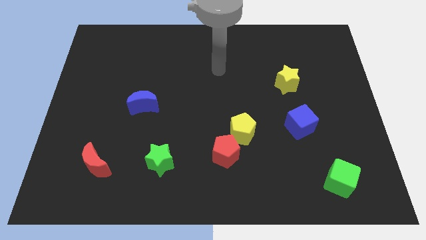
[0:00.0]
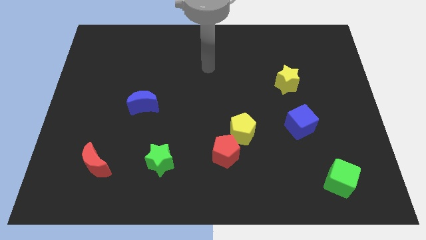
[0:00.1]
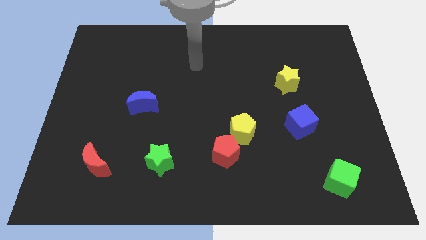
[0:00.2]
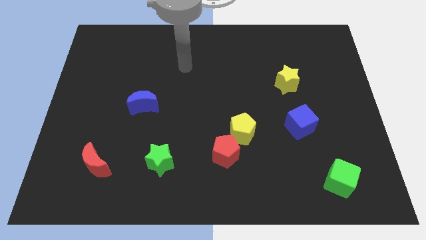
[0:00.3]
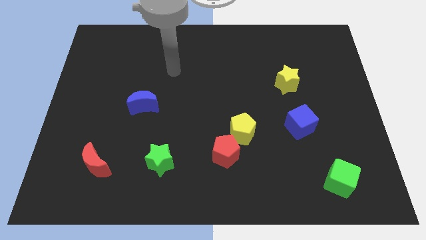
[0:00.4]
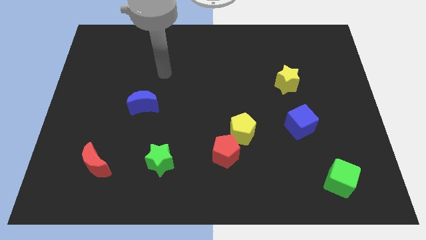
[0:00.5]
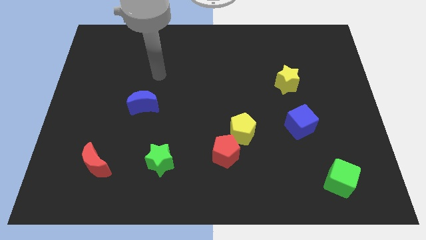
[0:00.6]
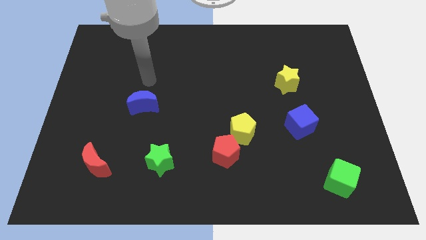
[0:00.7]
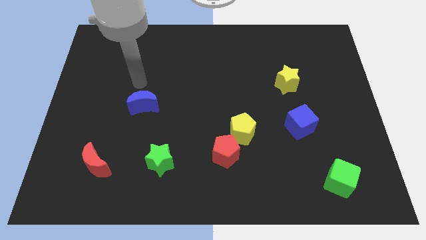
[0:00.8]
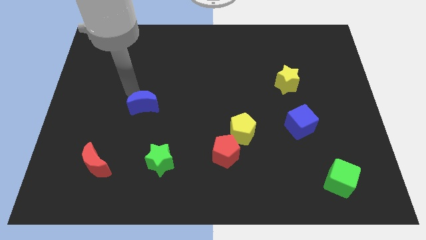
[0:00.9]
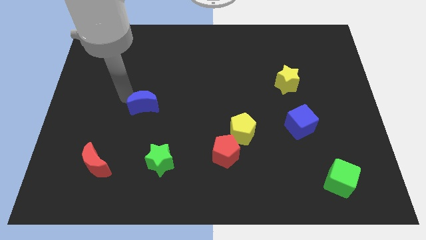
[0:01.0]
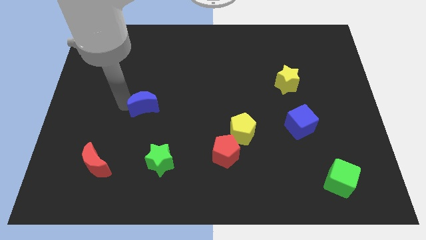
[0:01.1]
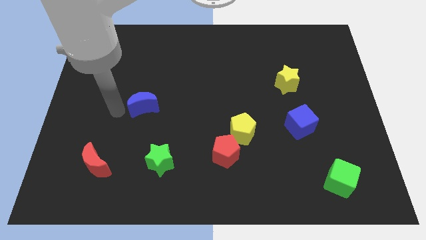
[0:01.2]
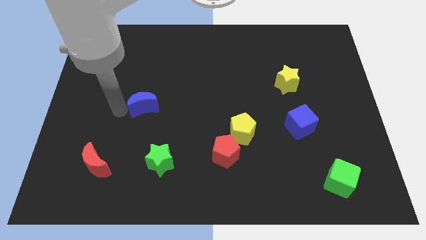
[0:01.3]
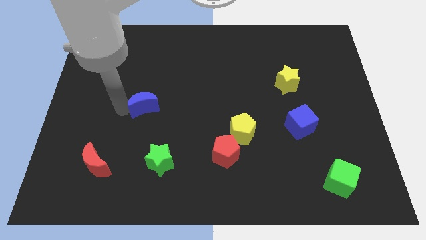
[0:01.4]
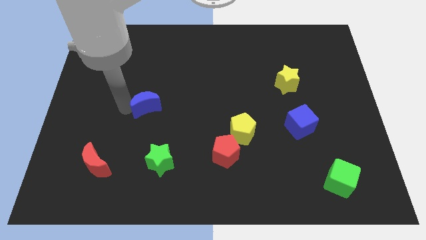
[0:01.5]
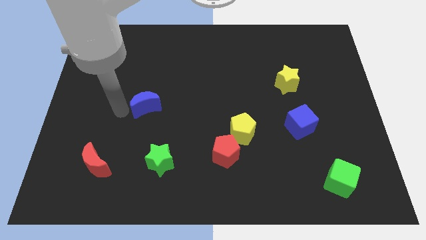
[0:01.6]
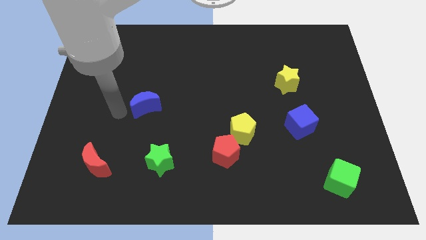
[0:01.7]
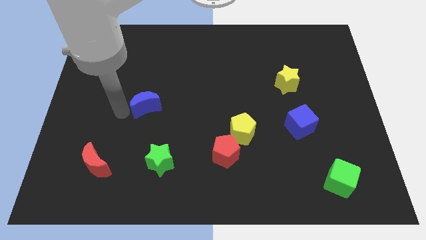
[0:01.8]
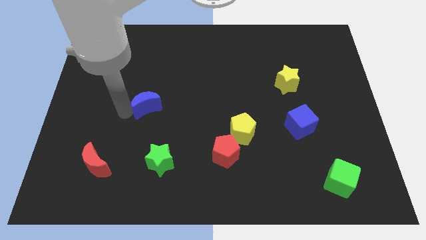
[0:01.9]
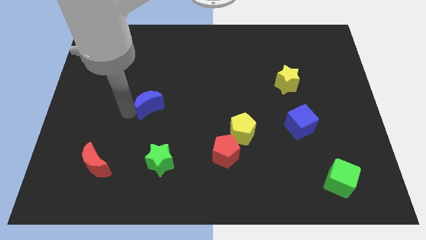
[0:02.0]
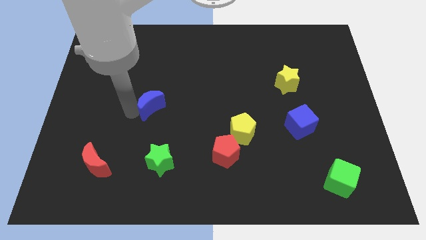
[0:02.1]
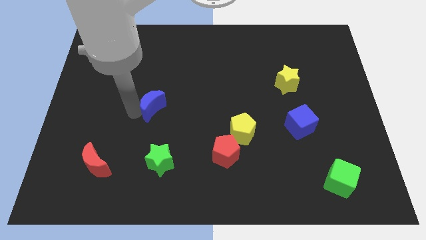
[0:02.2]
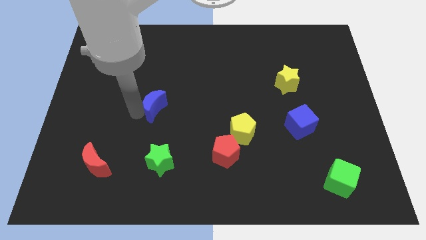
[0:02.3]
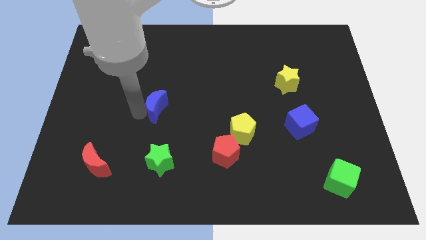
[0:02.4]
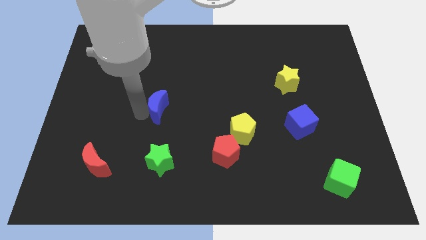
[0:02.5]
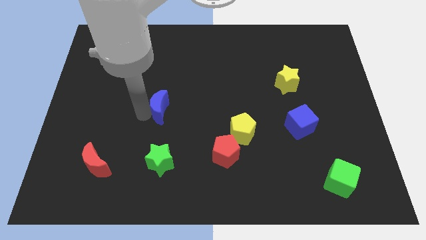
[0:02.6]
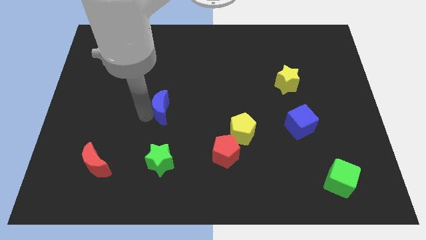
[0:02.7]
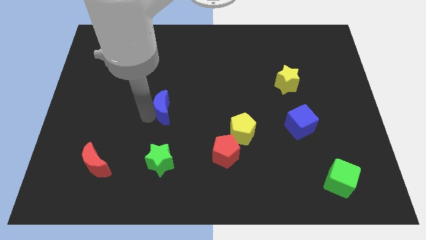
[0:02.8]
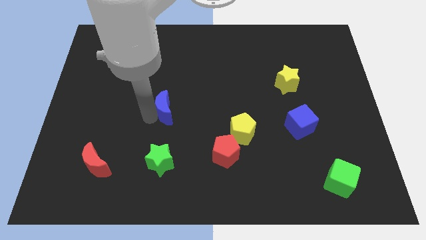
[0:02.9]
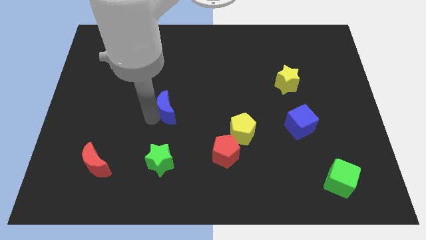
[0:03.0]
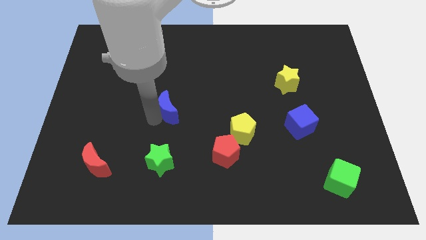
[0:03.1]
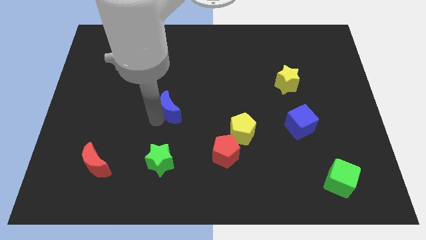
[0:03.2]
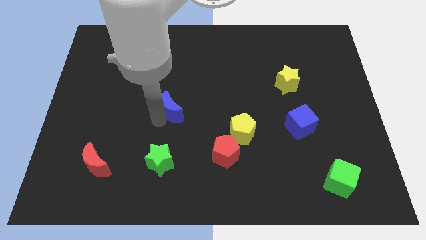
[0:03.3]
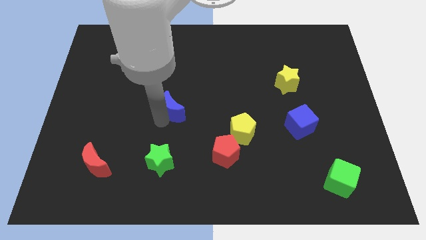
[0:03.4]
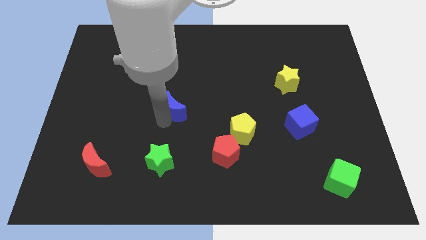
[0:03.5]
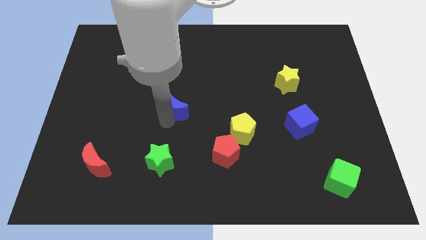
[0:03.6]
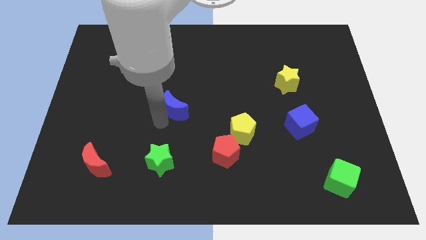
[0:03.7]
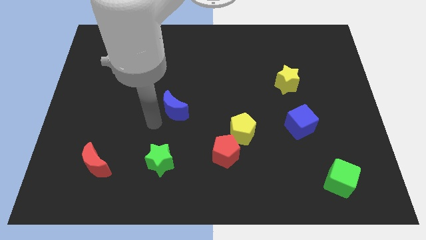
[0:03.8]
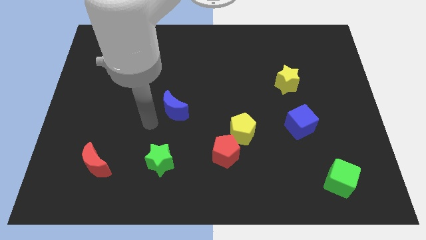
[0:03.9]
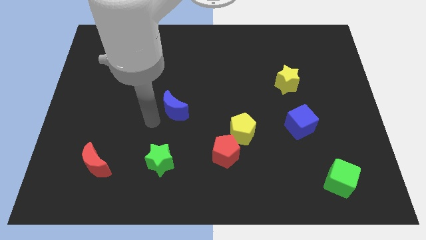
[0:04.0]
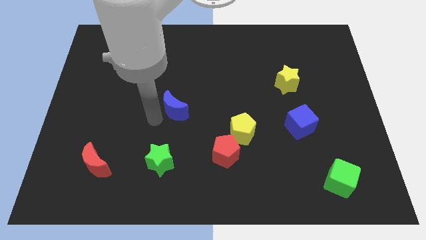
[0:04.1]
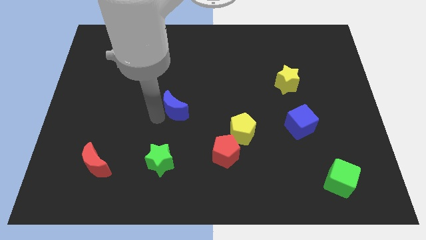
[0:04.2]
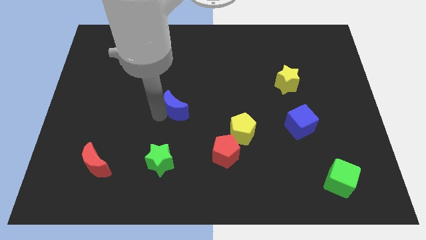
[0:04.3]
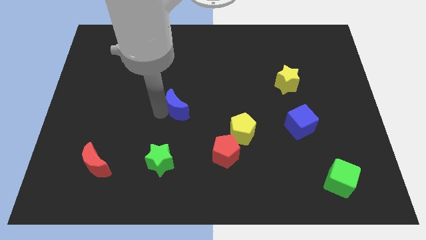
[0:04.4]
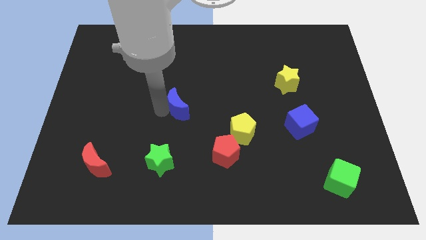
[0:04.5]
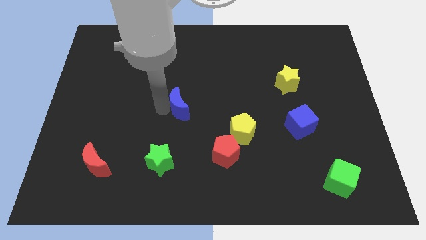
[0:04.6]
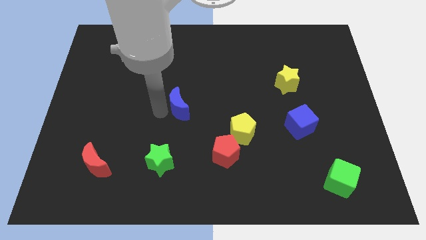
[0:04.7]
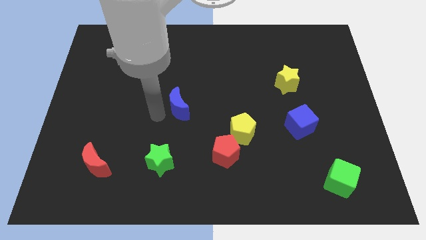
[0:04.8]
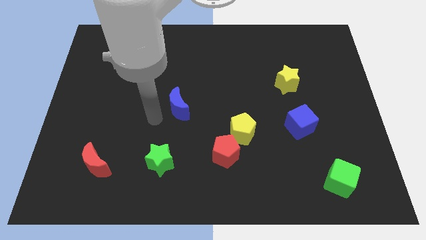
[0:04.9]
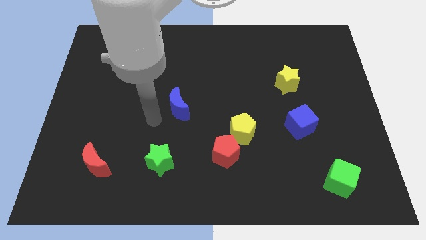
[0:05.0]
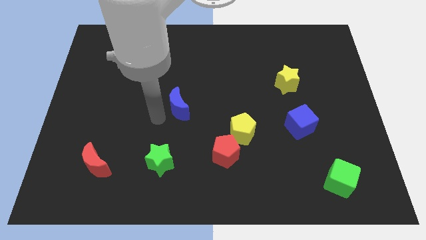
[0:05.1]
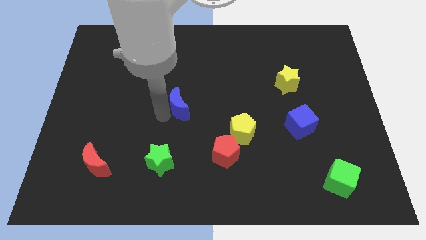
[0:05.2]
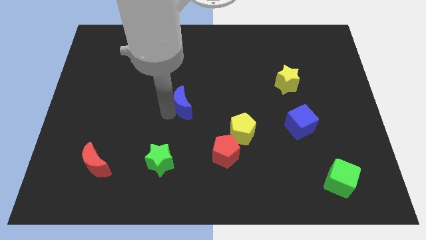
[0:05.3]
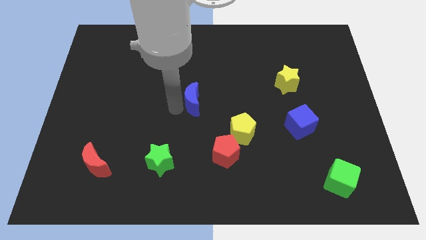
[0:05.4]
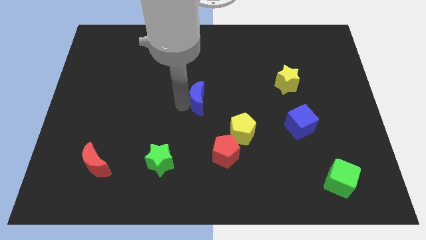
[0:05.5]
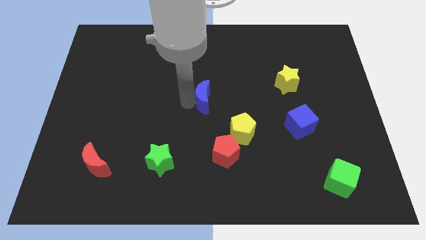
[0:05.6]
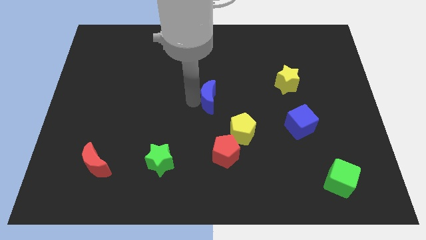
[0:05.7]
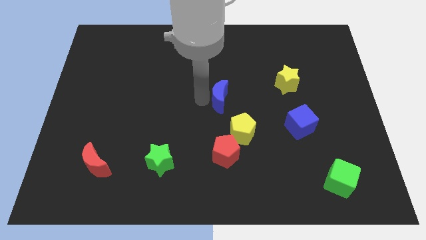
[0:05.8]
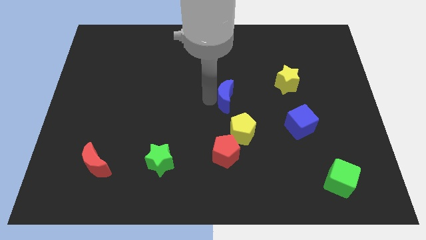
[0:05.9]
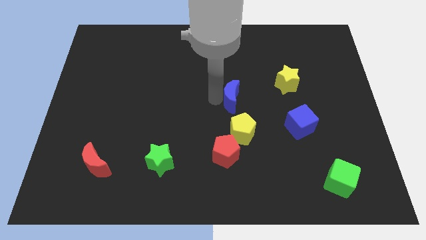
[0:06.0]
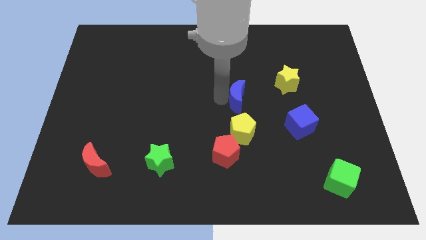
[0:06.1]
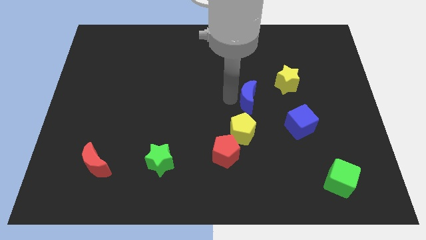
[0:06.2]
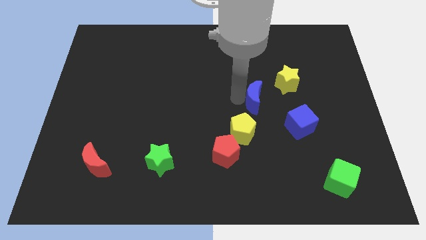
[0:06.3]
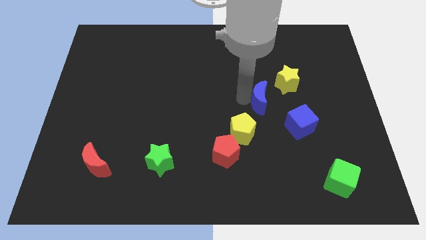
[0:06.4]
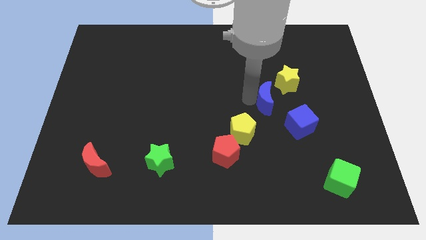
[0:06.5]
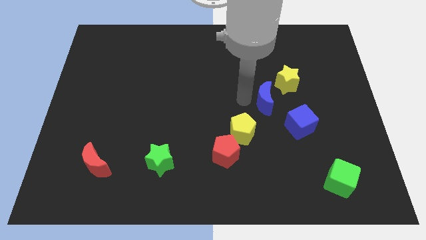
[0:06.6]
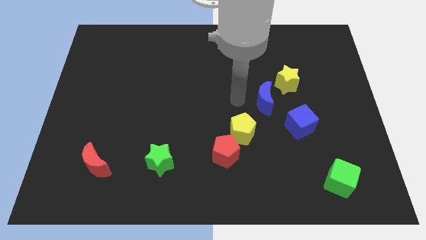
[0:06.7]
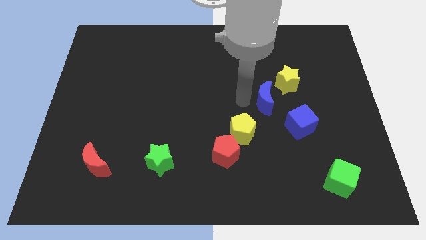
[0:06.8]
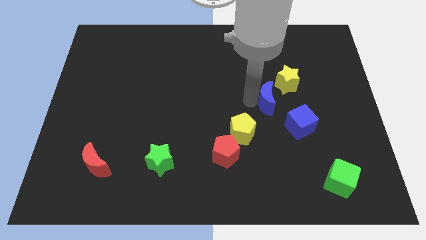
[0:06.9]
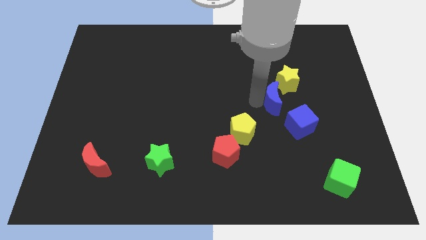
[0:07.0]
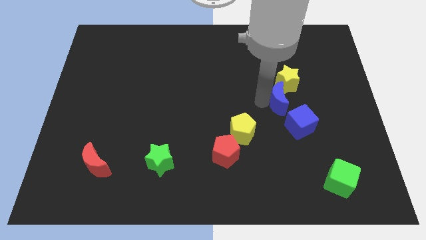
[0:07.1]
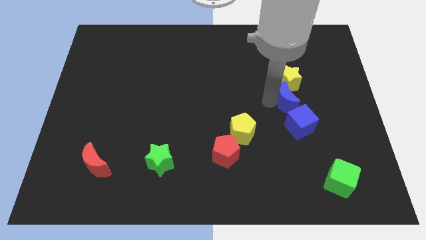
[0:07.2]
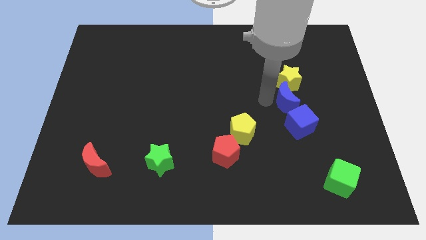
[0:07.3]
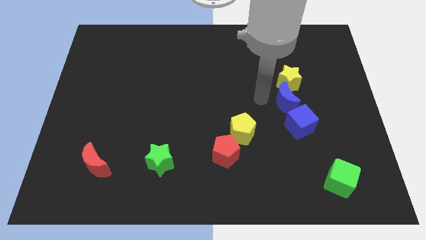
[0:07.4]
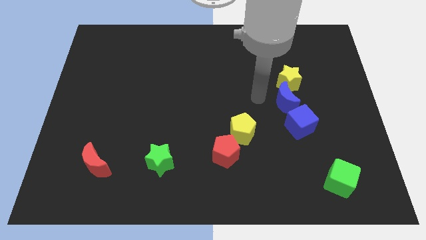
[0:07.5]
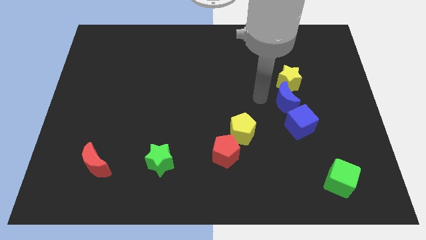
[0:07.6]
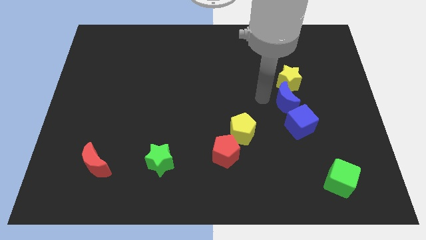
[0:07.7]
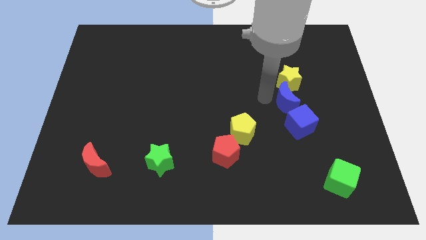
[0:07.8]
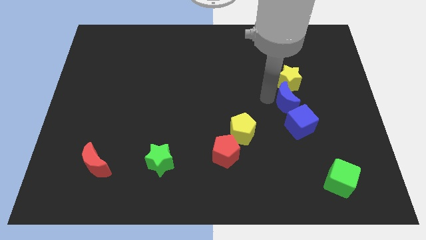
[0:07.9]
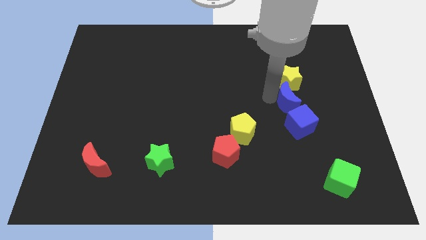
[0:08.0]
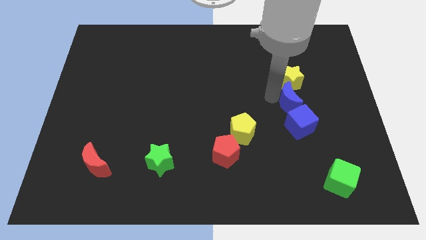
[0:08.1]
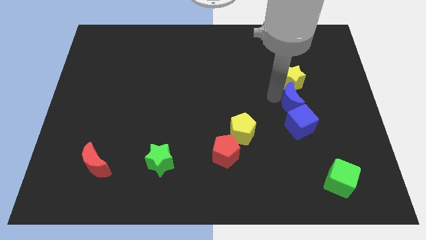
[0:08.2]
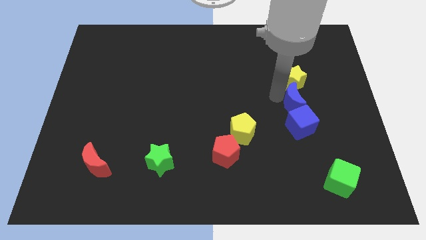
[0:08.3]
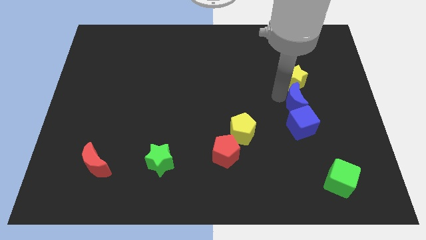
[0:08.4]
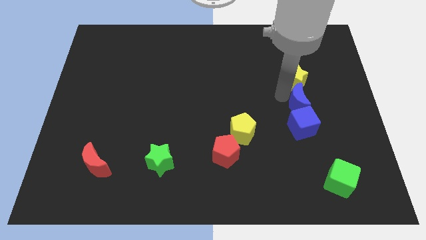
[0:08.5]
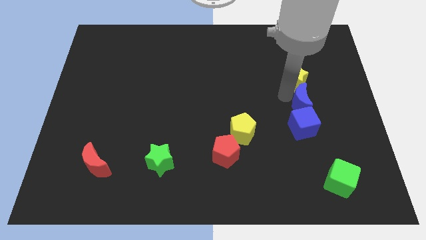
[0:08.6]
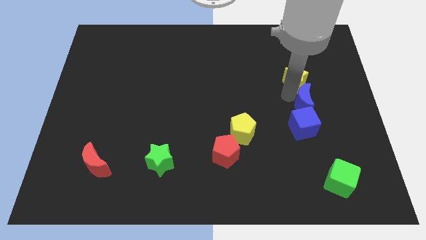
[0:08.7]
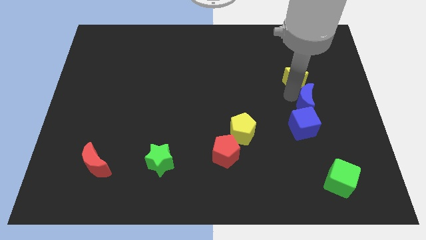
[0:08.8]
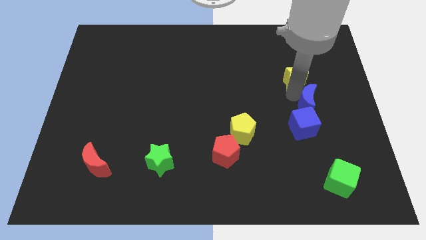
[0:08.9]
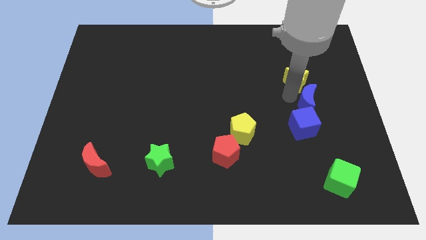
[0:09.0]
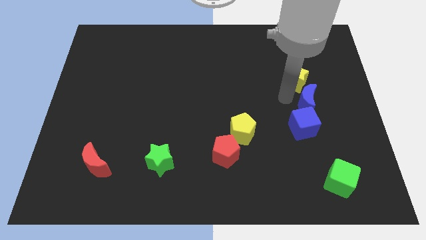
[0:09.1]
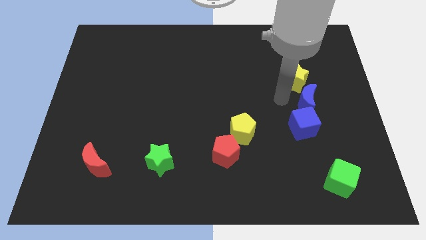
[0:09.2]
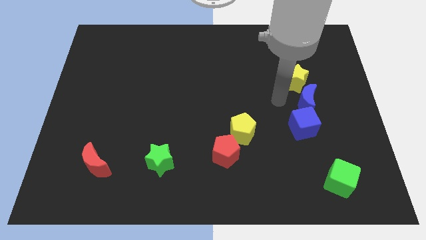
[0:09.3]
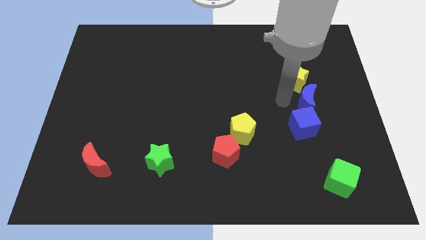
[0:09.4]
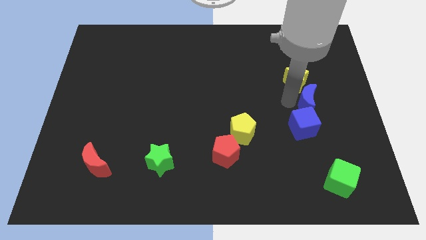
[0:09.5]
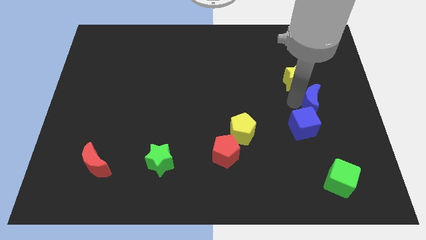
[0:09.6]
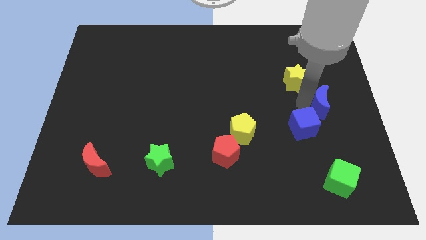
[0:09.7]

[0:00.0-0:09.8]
slide the blue moon to the center right
